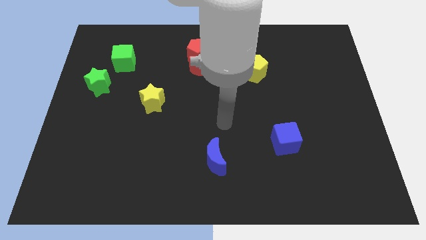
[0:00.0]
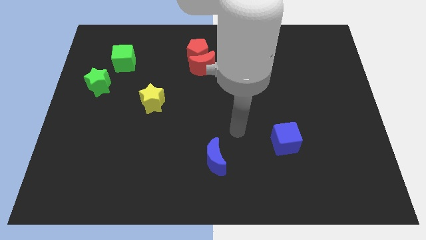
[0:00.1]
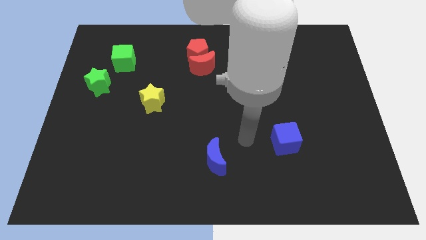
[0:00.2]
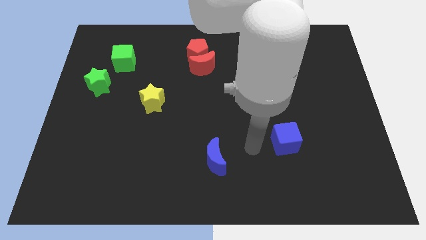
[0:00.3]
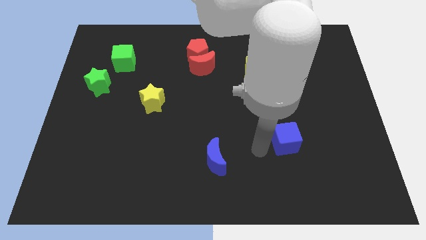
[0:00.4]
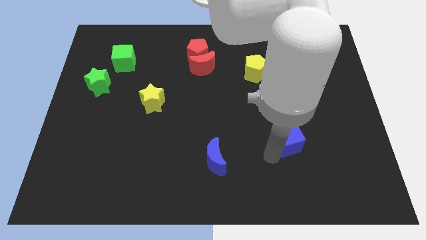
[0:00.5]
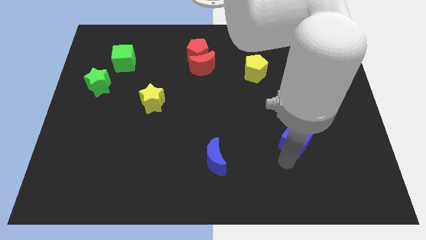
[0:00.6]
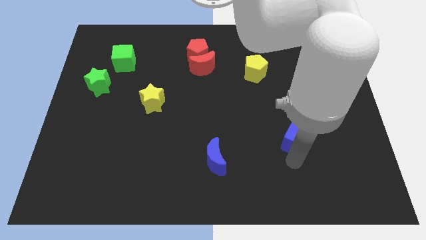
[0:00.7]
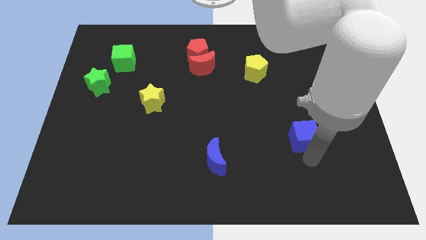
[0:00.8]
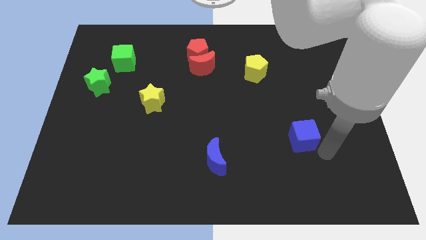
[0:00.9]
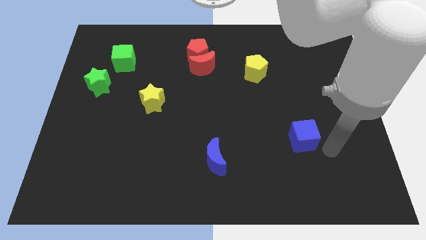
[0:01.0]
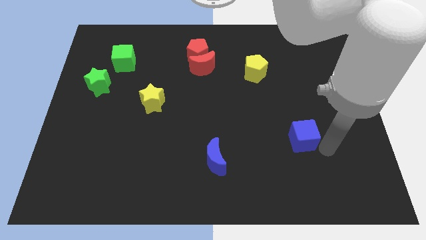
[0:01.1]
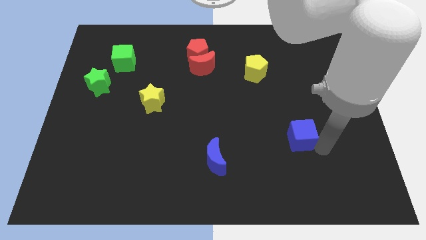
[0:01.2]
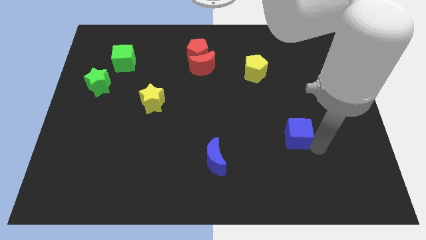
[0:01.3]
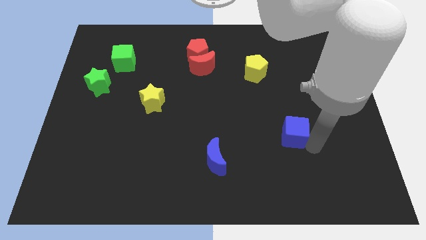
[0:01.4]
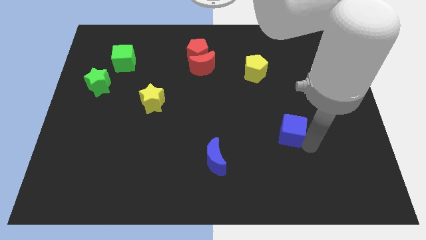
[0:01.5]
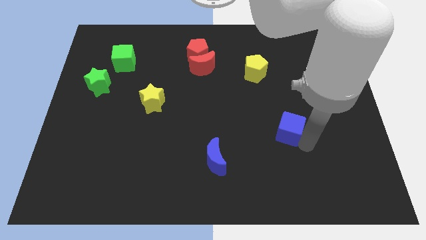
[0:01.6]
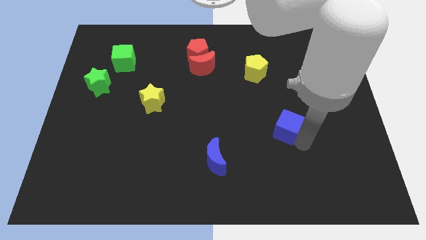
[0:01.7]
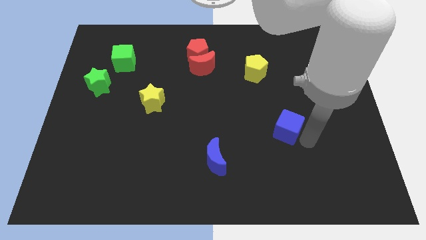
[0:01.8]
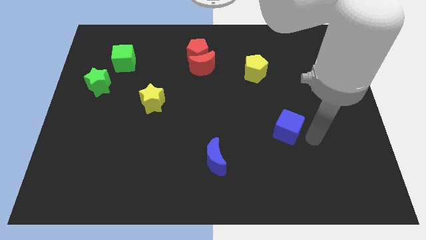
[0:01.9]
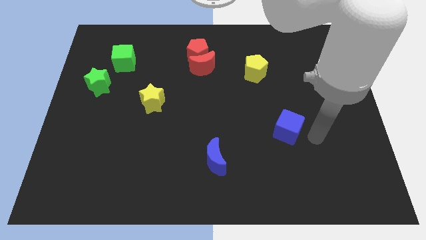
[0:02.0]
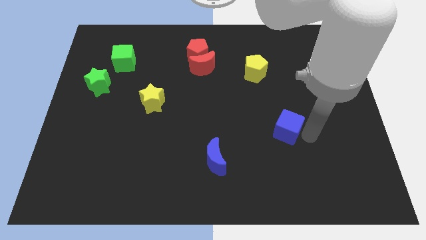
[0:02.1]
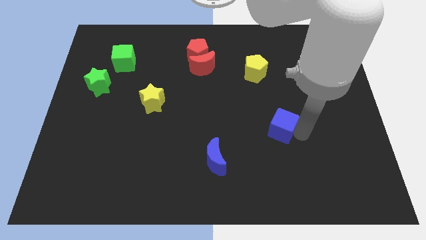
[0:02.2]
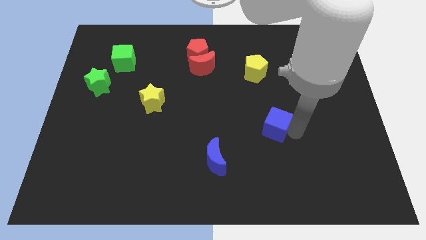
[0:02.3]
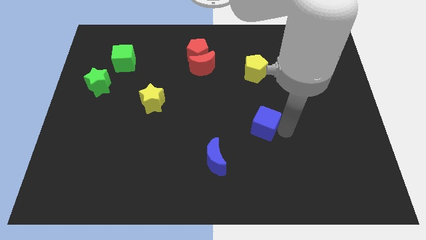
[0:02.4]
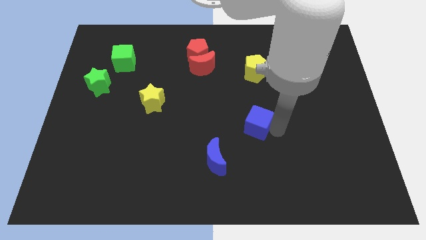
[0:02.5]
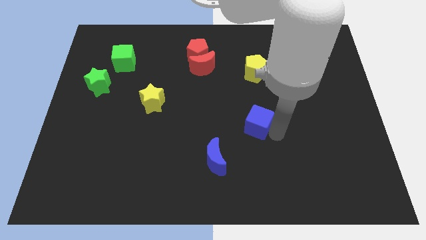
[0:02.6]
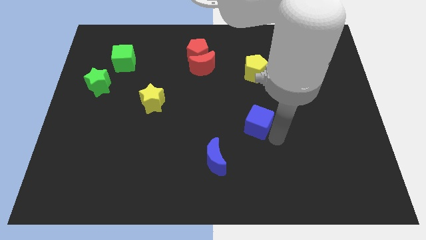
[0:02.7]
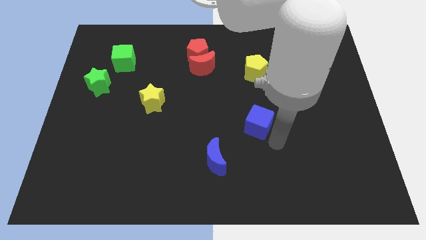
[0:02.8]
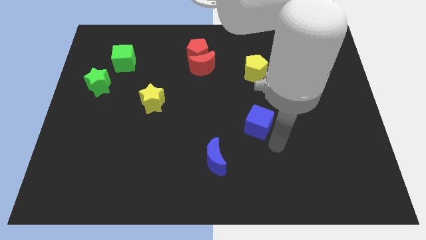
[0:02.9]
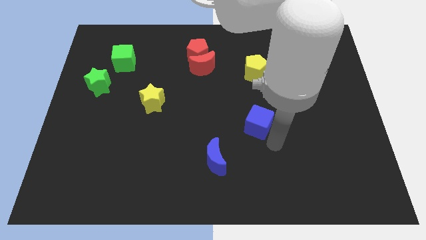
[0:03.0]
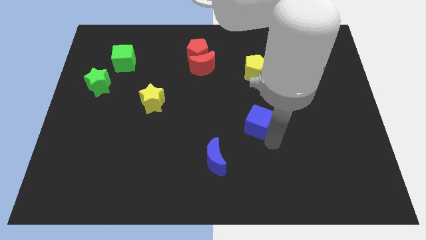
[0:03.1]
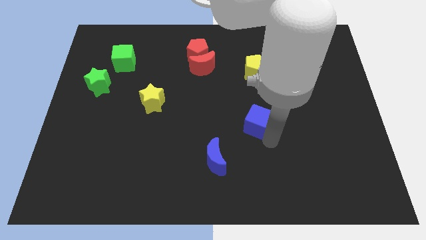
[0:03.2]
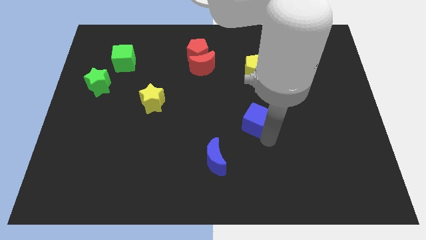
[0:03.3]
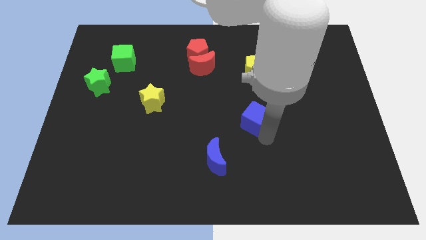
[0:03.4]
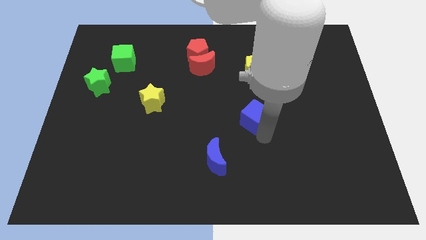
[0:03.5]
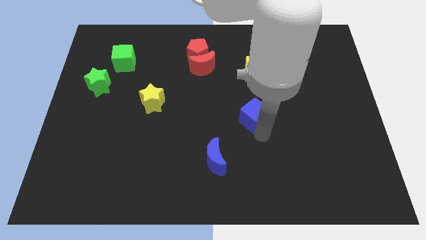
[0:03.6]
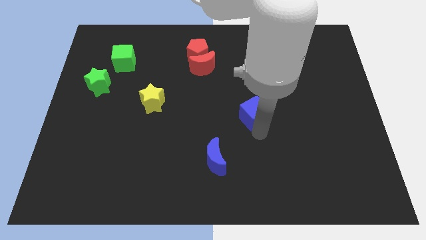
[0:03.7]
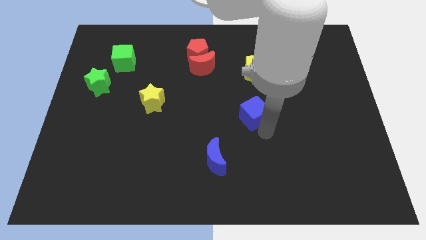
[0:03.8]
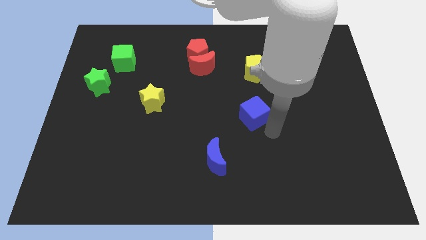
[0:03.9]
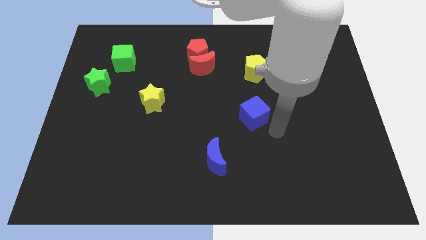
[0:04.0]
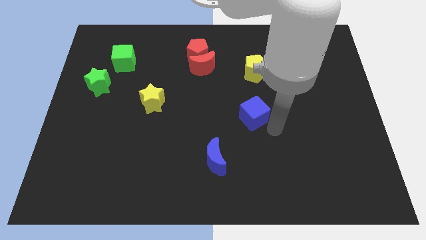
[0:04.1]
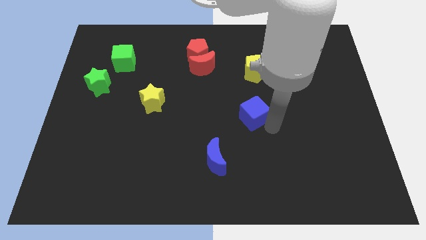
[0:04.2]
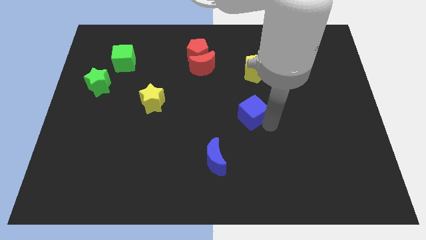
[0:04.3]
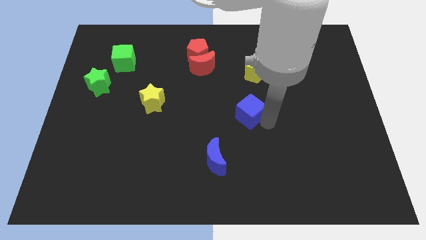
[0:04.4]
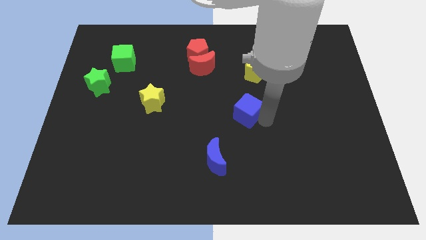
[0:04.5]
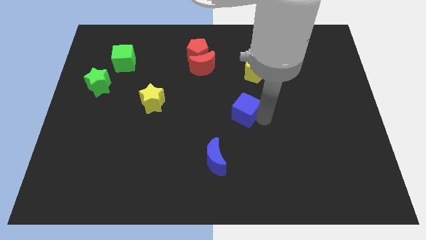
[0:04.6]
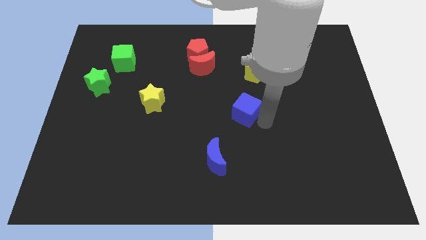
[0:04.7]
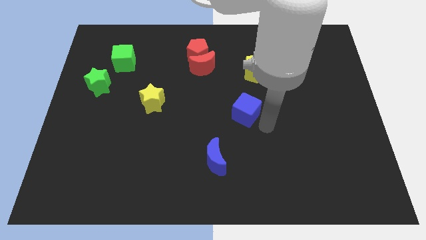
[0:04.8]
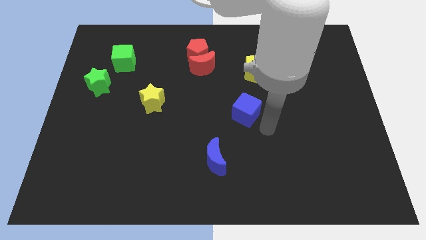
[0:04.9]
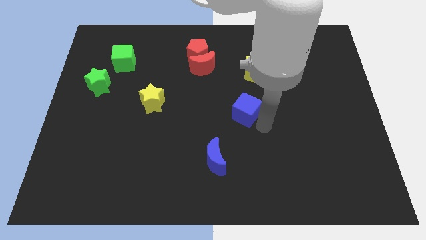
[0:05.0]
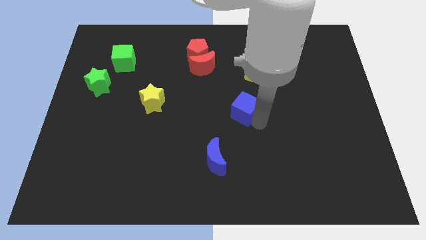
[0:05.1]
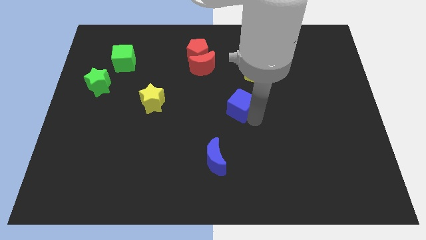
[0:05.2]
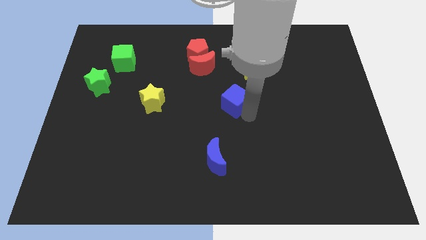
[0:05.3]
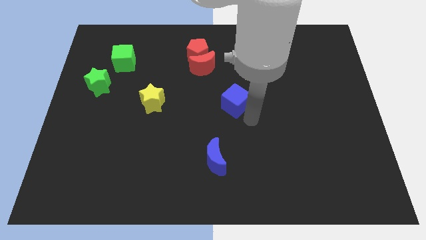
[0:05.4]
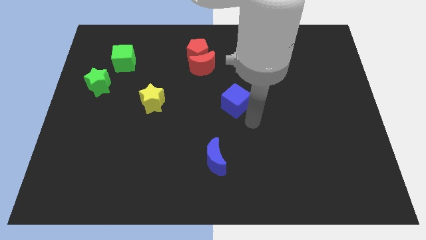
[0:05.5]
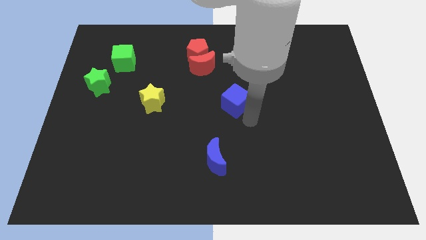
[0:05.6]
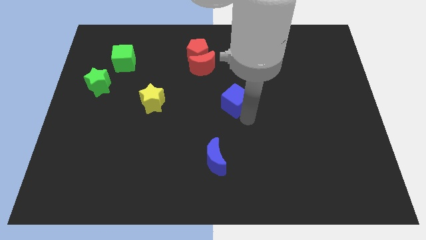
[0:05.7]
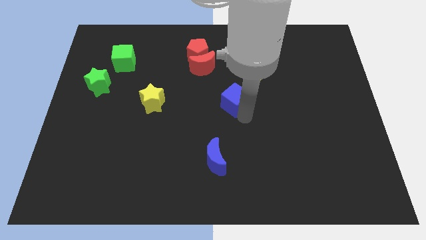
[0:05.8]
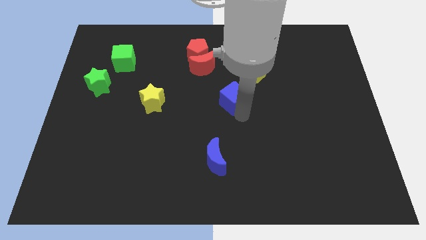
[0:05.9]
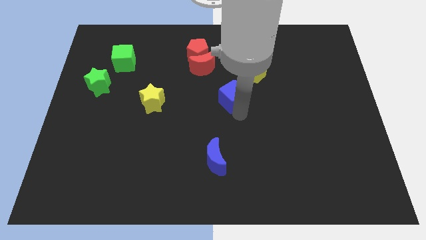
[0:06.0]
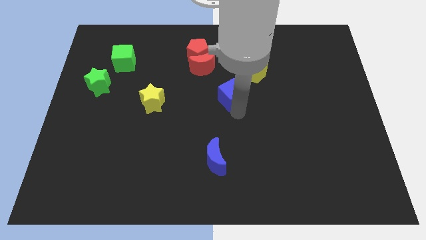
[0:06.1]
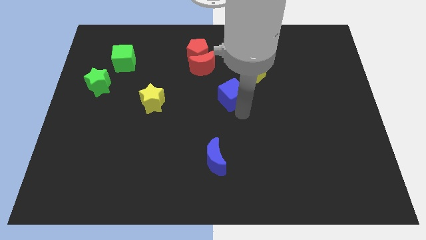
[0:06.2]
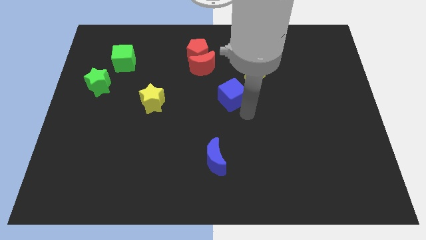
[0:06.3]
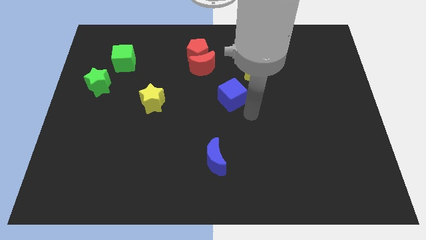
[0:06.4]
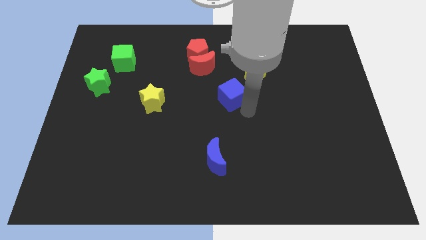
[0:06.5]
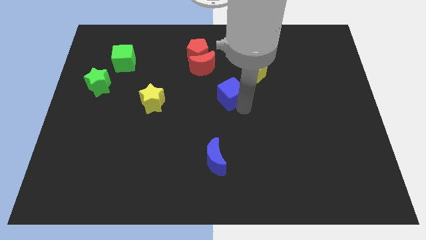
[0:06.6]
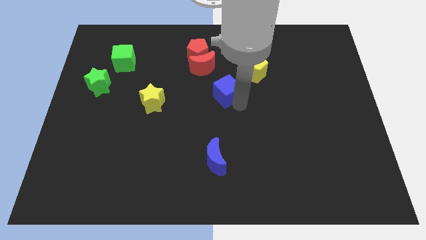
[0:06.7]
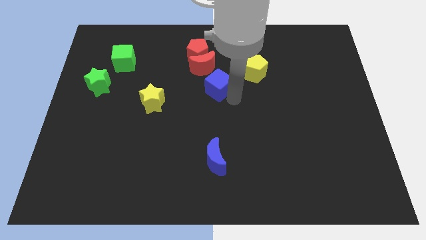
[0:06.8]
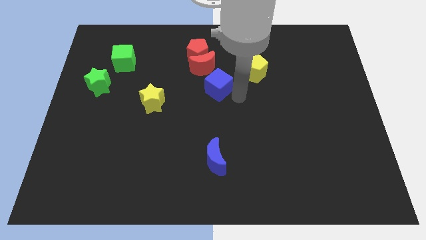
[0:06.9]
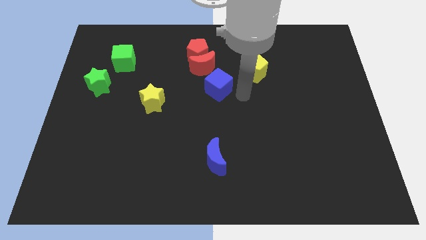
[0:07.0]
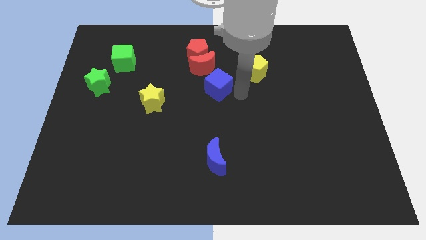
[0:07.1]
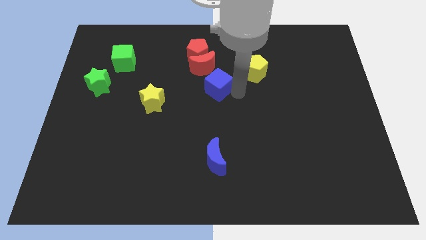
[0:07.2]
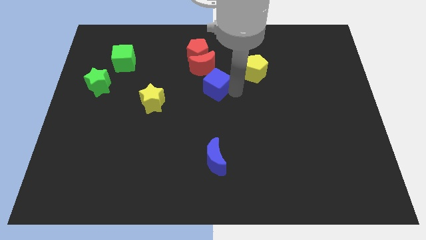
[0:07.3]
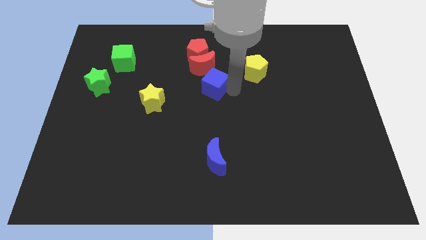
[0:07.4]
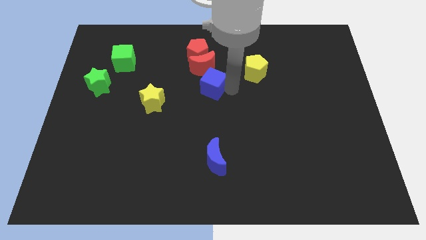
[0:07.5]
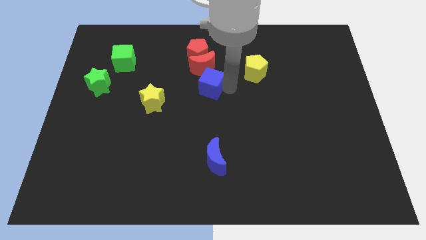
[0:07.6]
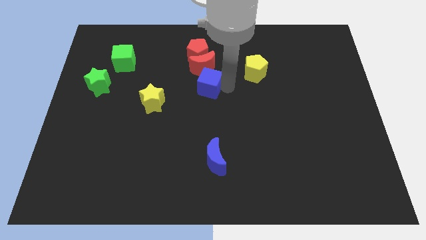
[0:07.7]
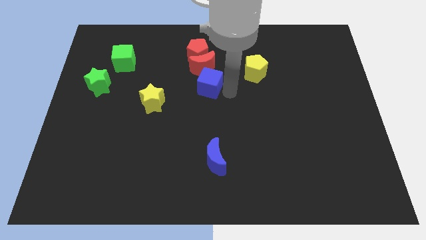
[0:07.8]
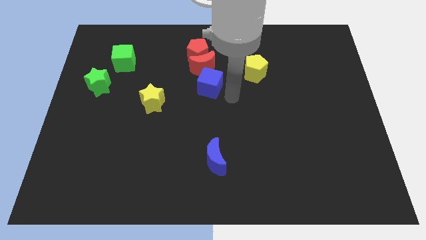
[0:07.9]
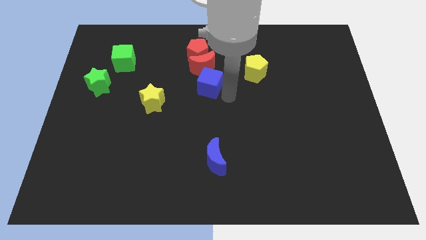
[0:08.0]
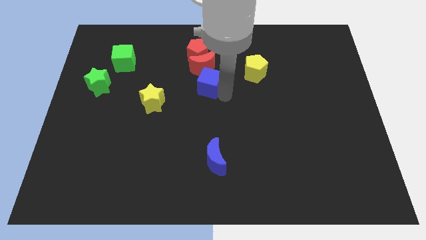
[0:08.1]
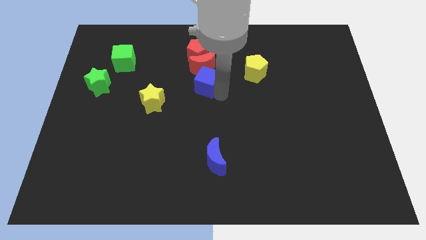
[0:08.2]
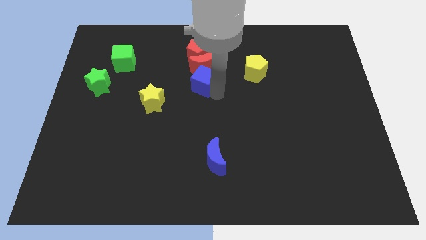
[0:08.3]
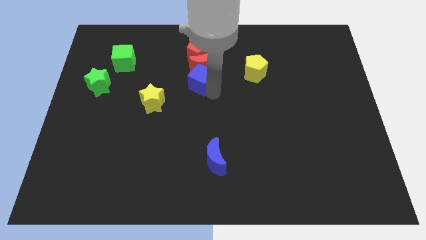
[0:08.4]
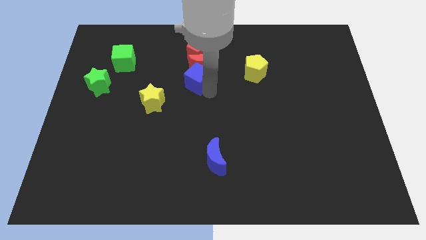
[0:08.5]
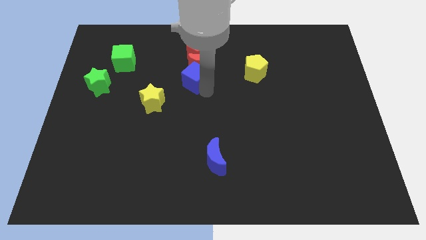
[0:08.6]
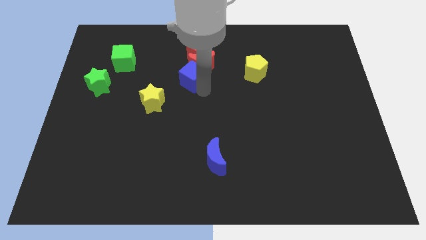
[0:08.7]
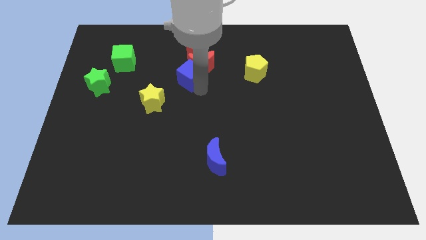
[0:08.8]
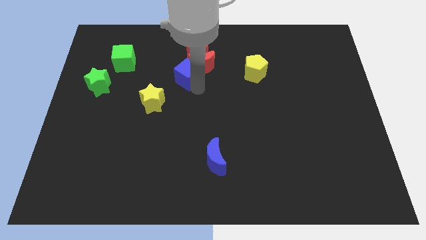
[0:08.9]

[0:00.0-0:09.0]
move the blue cube to the bottom left side of the red pentagon

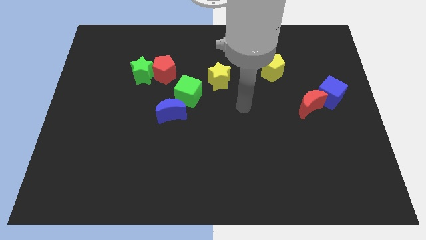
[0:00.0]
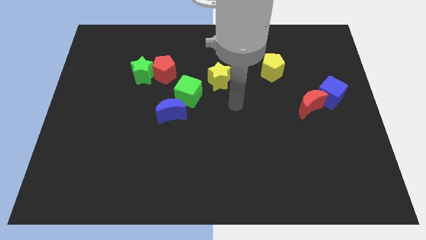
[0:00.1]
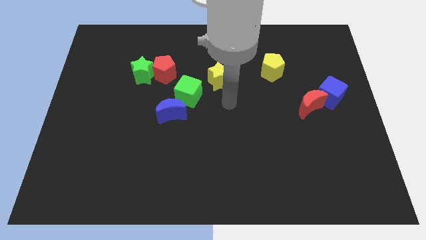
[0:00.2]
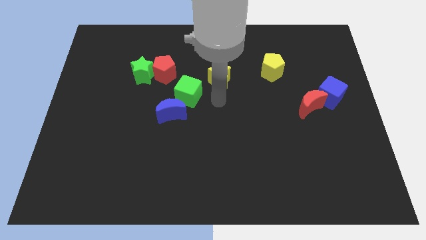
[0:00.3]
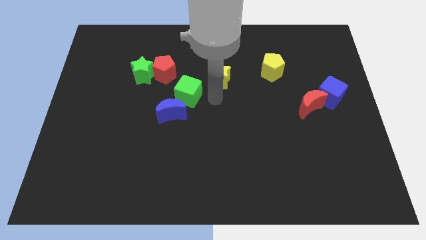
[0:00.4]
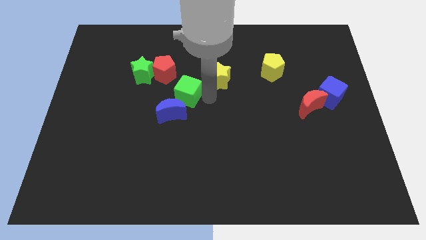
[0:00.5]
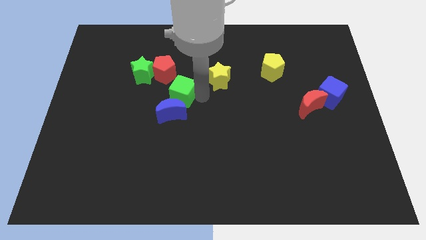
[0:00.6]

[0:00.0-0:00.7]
put the green cube to the bottom right of the green star
